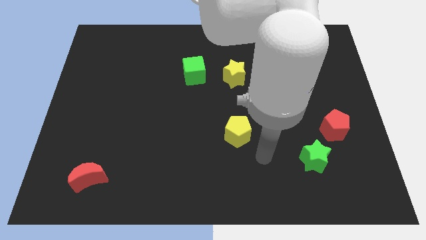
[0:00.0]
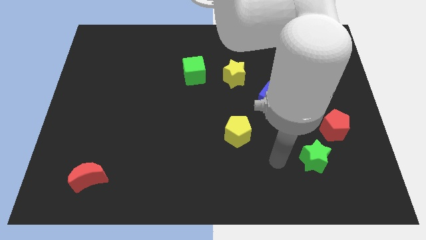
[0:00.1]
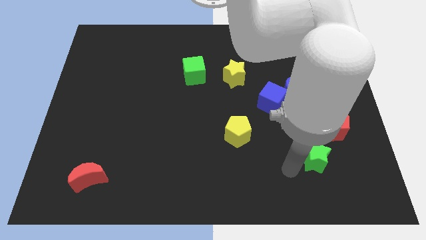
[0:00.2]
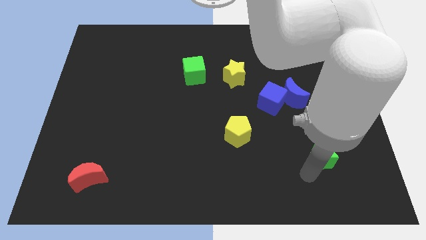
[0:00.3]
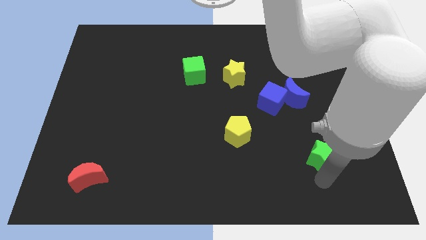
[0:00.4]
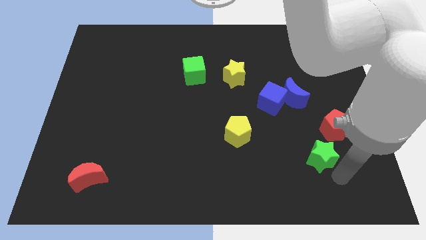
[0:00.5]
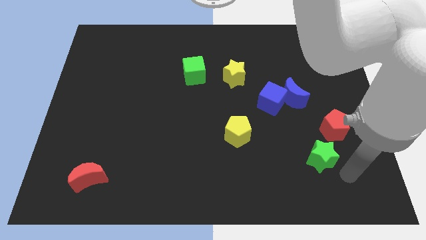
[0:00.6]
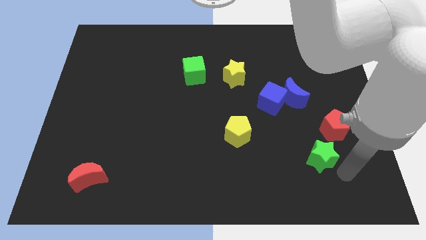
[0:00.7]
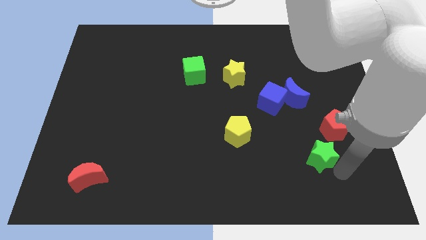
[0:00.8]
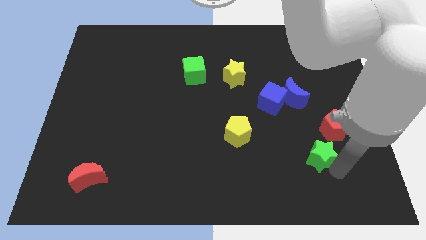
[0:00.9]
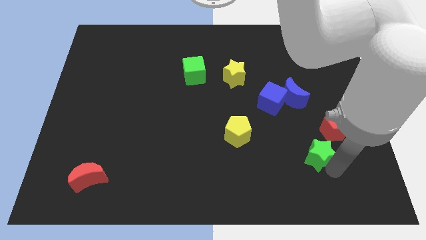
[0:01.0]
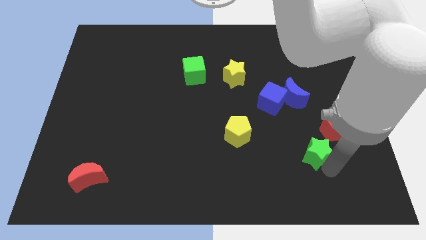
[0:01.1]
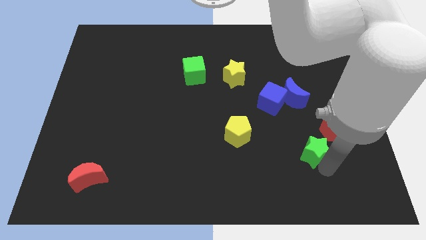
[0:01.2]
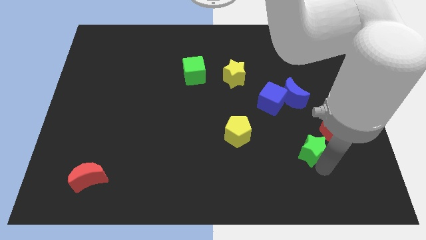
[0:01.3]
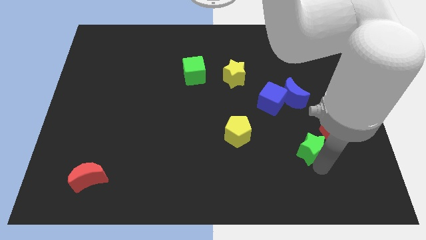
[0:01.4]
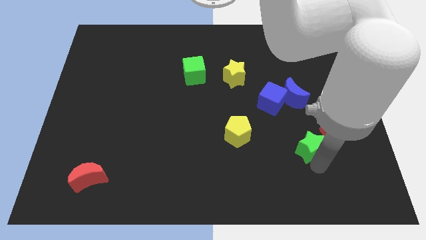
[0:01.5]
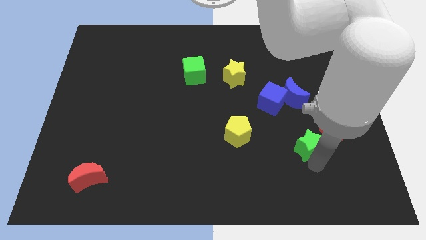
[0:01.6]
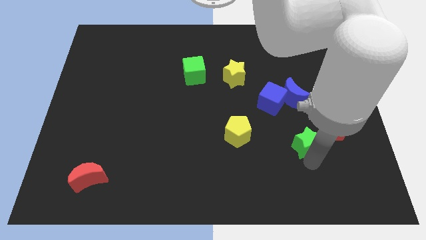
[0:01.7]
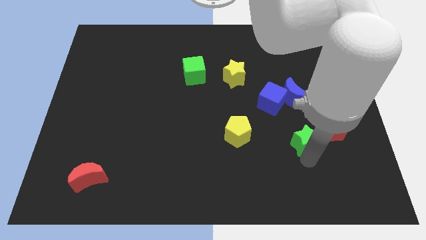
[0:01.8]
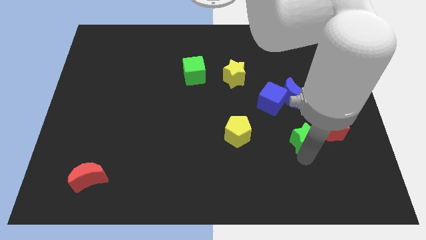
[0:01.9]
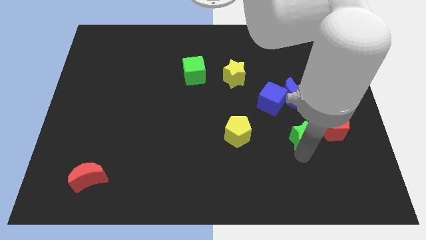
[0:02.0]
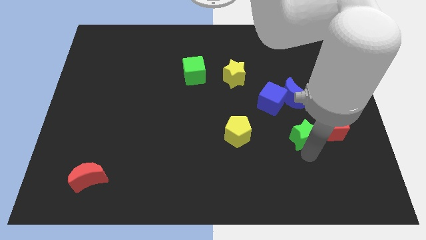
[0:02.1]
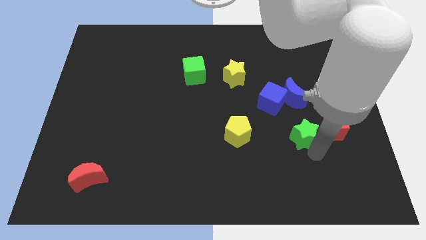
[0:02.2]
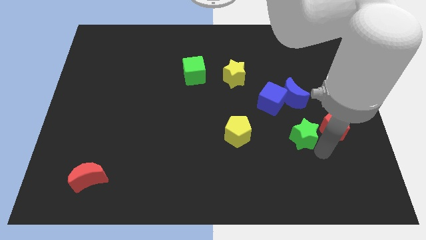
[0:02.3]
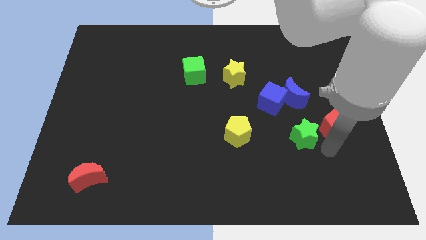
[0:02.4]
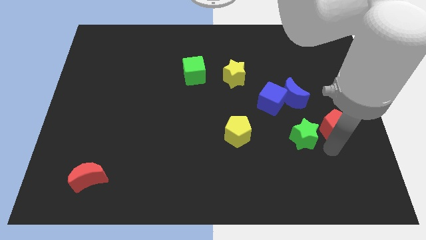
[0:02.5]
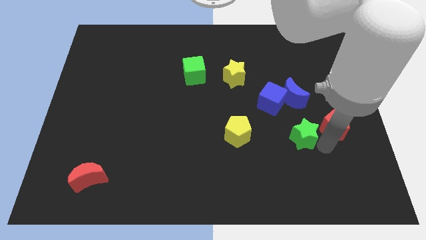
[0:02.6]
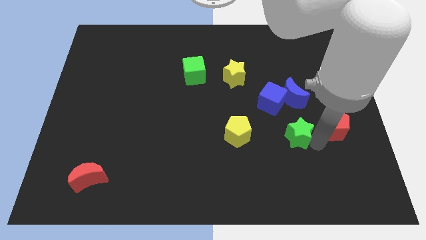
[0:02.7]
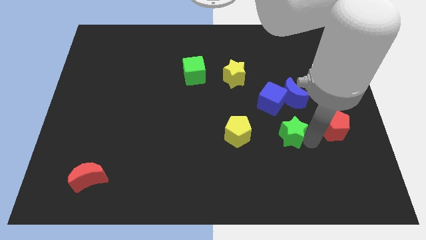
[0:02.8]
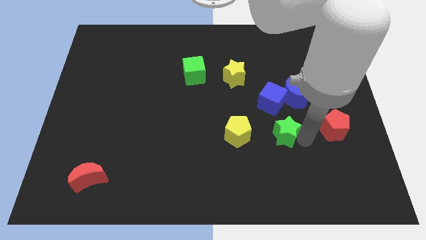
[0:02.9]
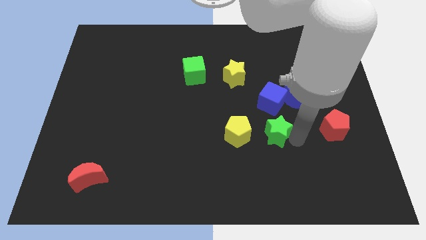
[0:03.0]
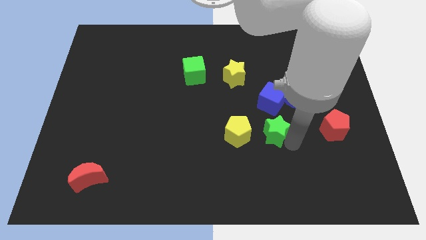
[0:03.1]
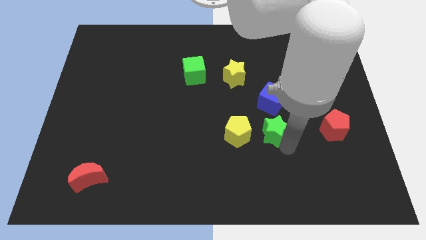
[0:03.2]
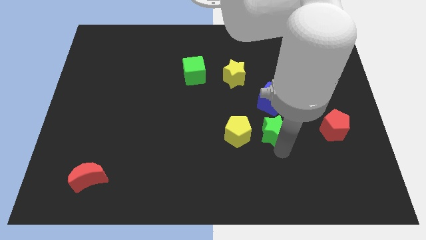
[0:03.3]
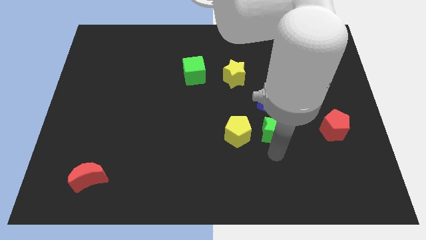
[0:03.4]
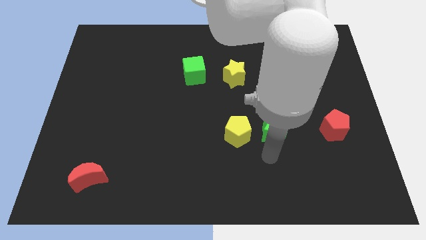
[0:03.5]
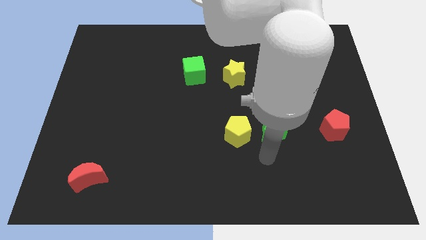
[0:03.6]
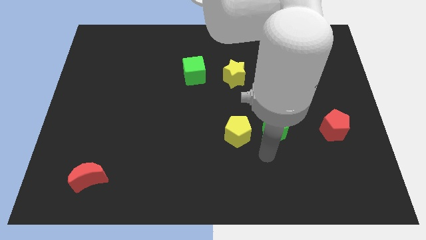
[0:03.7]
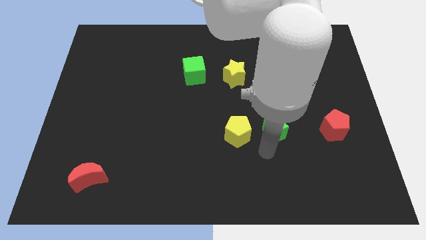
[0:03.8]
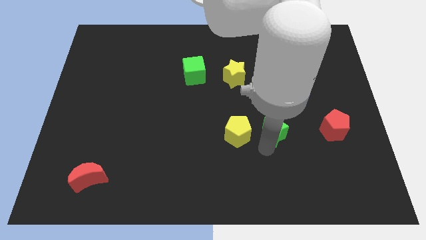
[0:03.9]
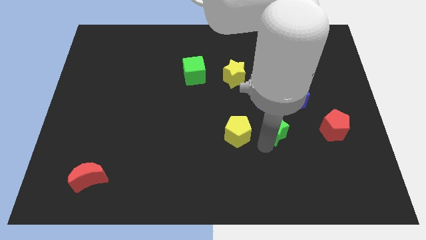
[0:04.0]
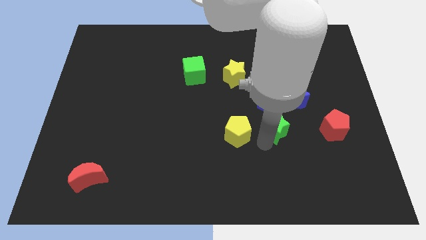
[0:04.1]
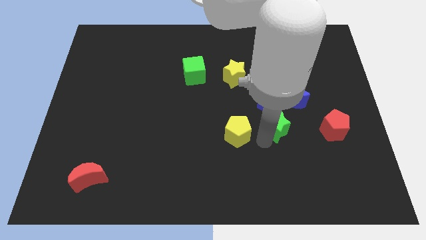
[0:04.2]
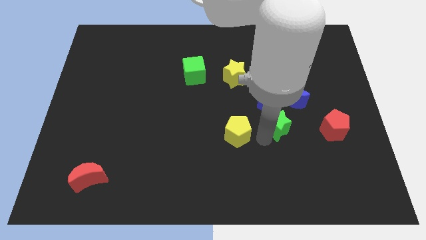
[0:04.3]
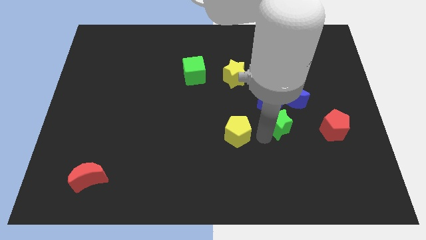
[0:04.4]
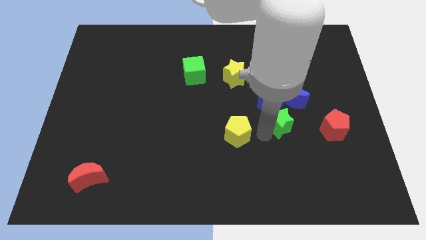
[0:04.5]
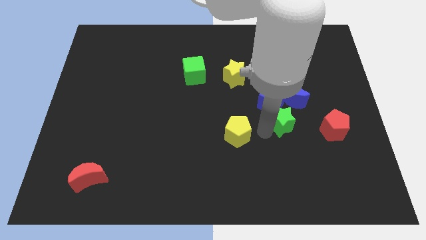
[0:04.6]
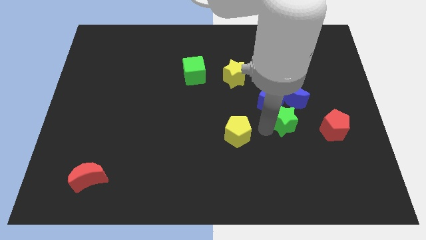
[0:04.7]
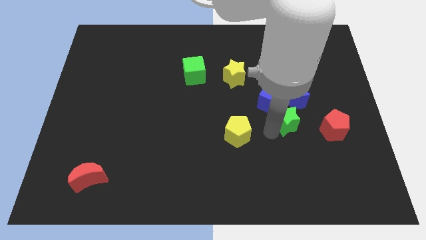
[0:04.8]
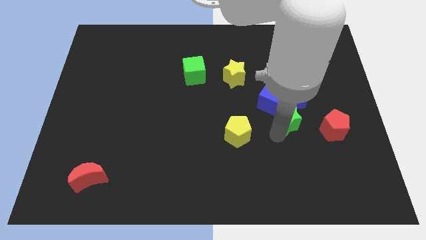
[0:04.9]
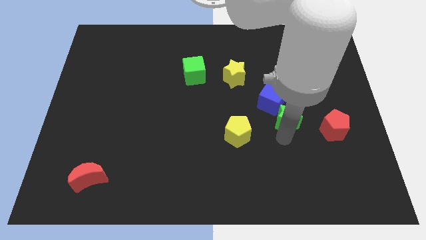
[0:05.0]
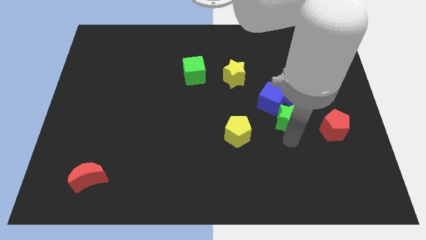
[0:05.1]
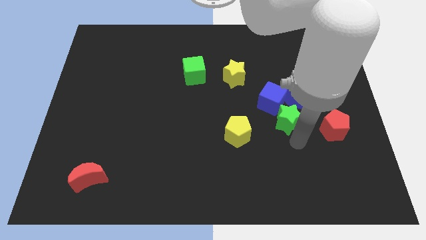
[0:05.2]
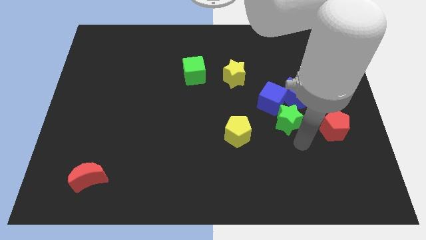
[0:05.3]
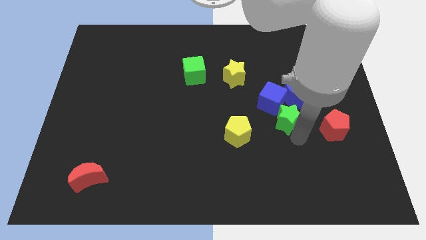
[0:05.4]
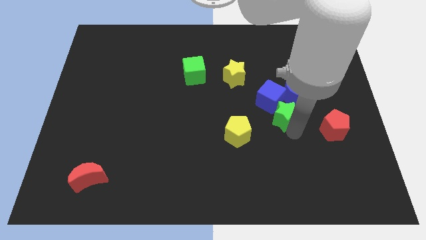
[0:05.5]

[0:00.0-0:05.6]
put the green star towards the blue cube

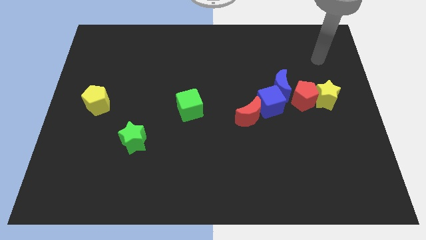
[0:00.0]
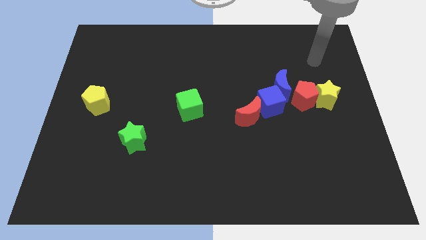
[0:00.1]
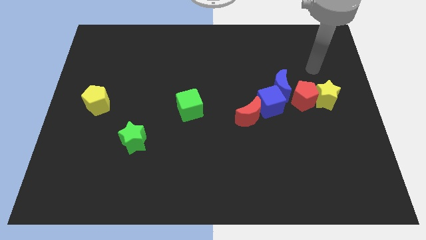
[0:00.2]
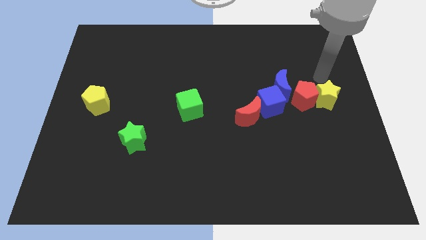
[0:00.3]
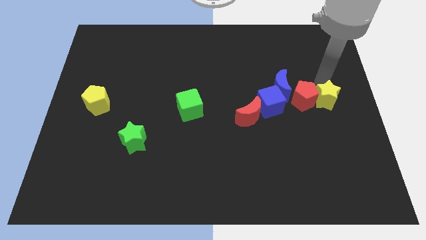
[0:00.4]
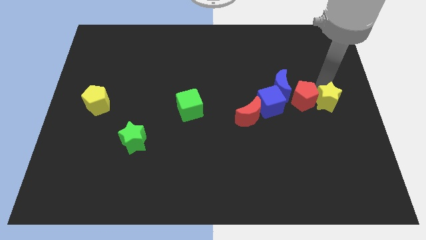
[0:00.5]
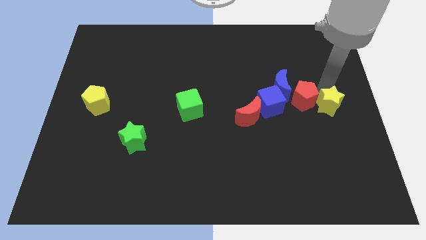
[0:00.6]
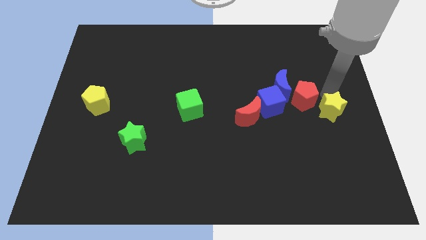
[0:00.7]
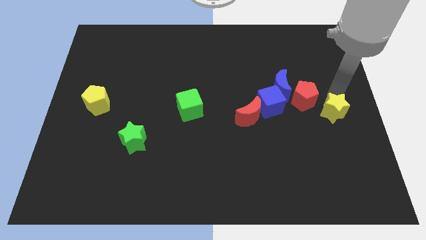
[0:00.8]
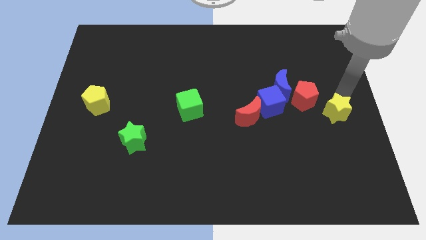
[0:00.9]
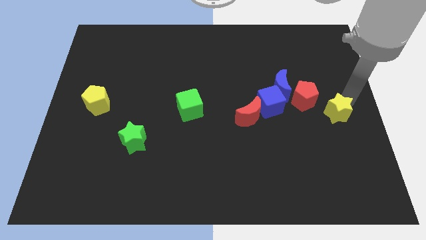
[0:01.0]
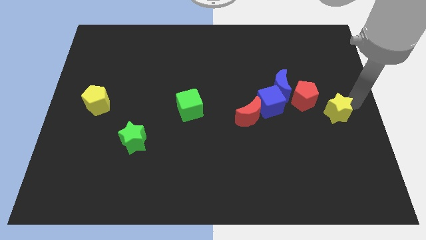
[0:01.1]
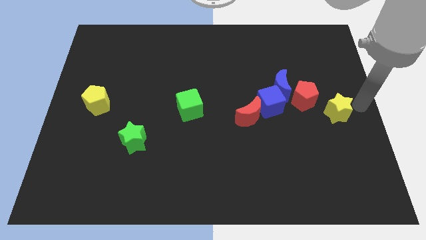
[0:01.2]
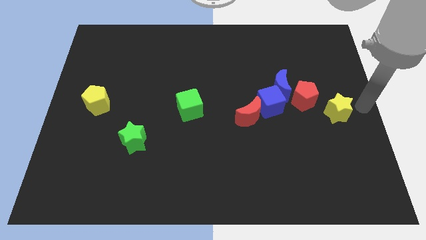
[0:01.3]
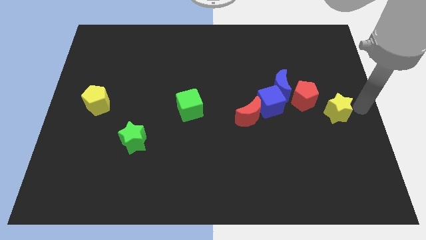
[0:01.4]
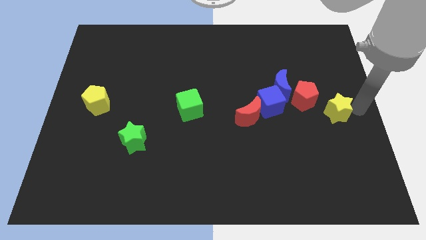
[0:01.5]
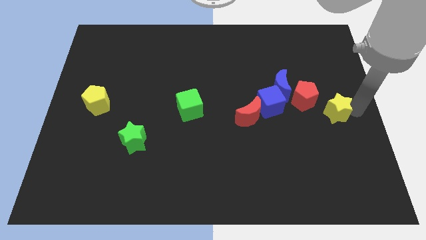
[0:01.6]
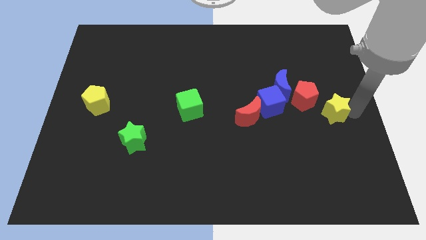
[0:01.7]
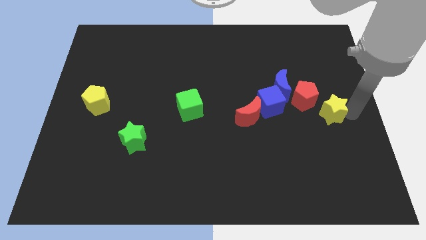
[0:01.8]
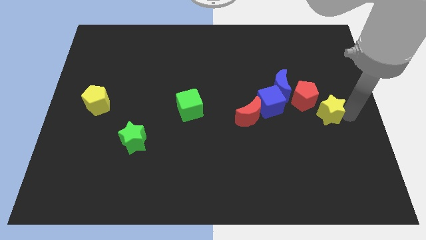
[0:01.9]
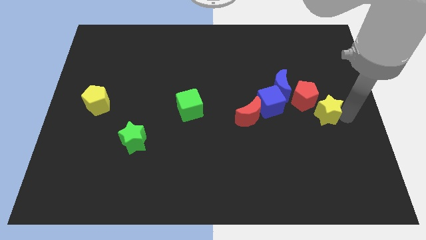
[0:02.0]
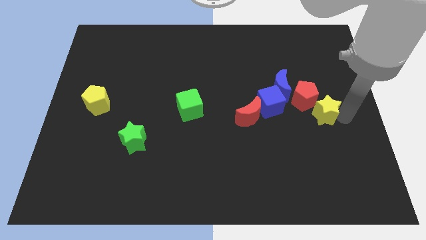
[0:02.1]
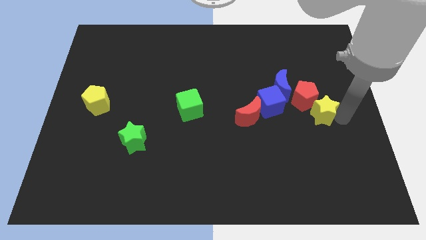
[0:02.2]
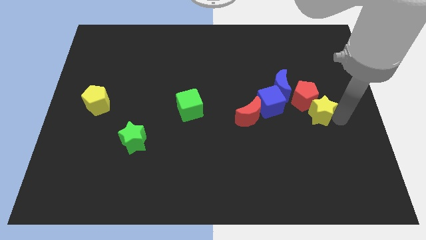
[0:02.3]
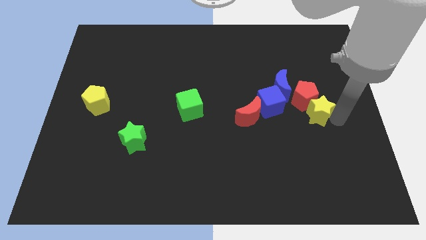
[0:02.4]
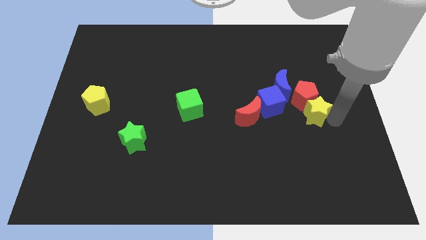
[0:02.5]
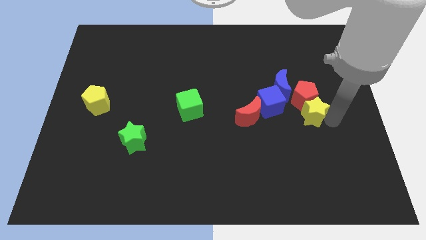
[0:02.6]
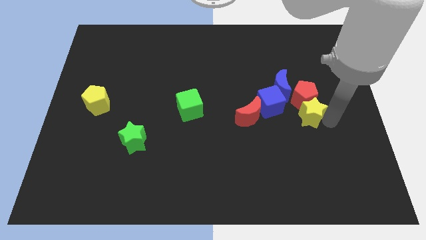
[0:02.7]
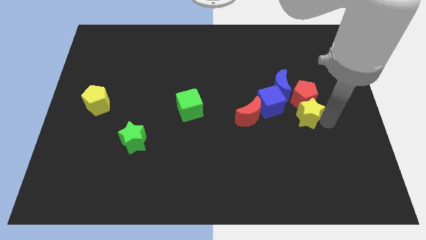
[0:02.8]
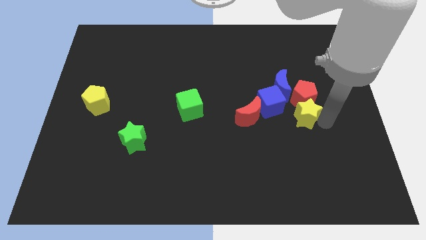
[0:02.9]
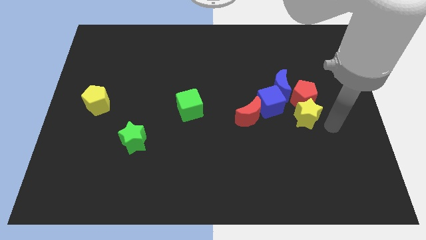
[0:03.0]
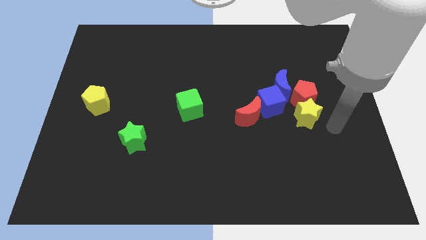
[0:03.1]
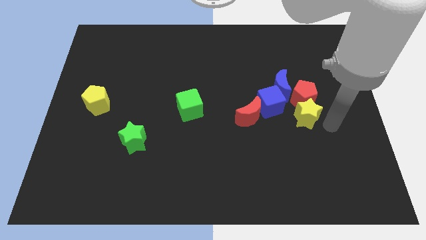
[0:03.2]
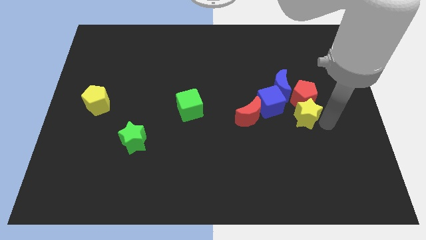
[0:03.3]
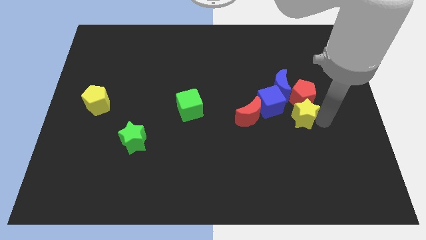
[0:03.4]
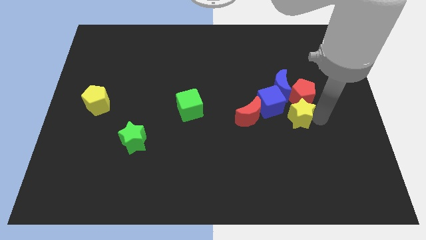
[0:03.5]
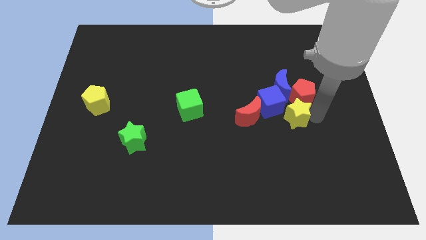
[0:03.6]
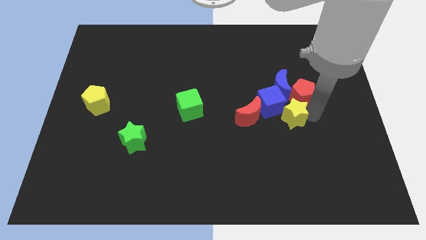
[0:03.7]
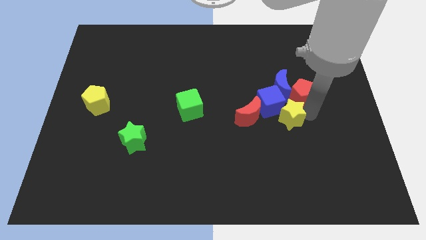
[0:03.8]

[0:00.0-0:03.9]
move the yellow star to the blue cube
